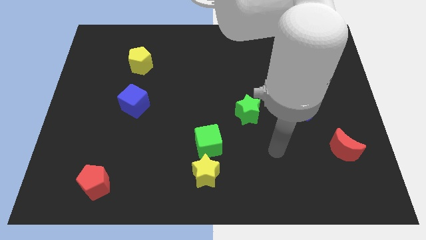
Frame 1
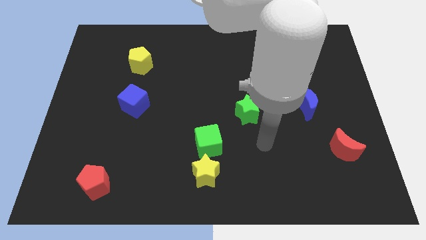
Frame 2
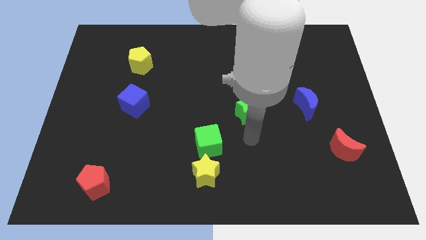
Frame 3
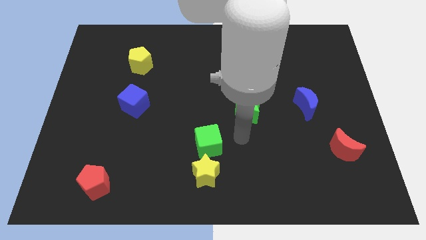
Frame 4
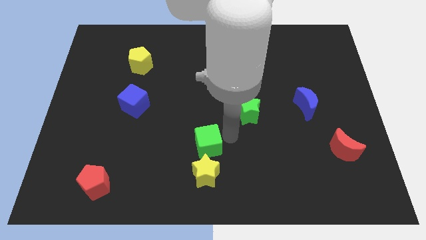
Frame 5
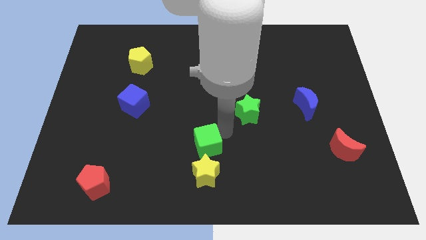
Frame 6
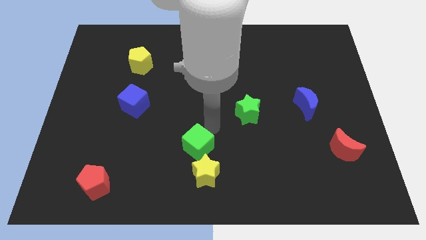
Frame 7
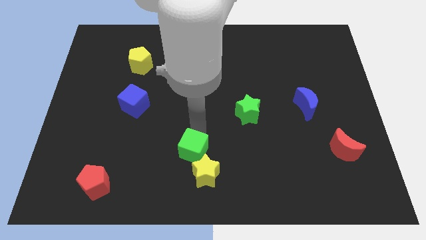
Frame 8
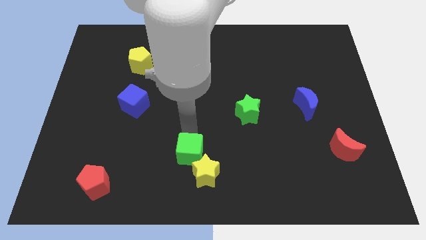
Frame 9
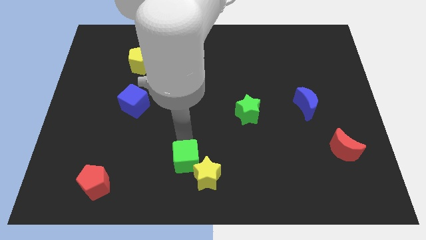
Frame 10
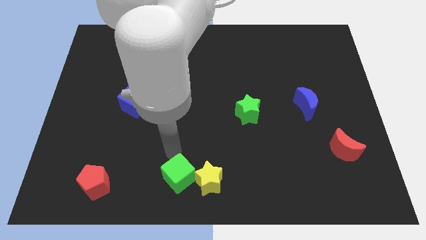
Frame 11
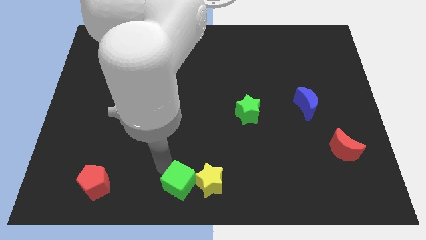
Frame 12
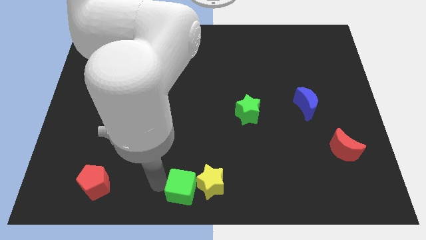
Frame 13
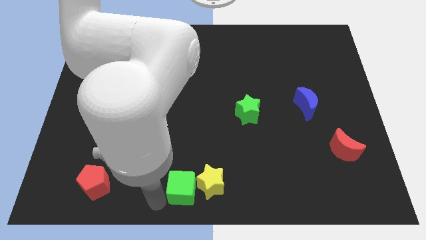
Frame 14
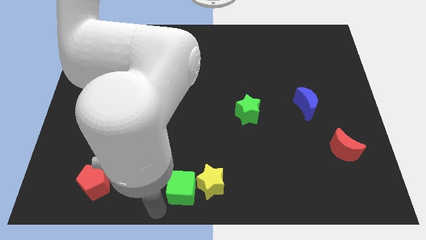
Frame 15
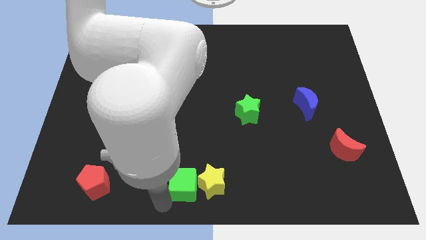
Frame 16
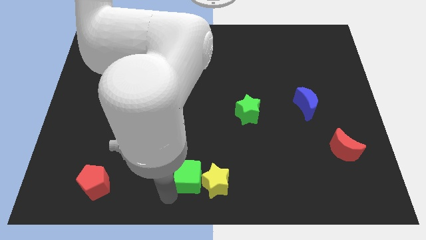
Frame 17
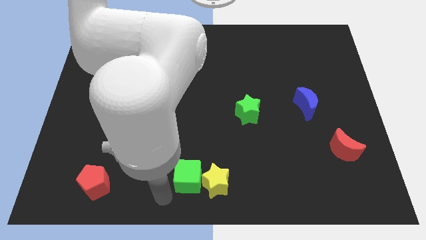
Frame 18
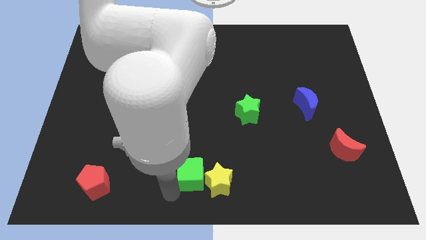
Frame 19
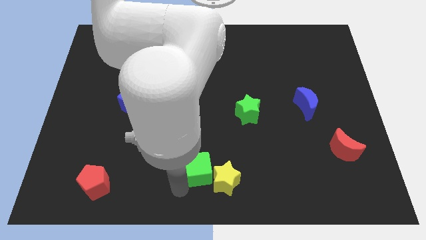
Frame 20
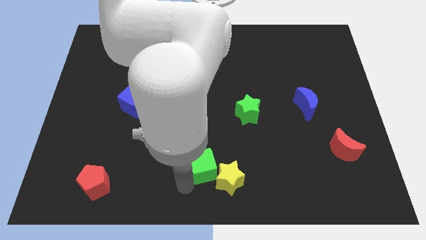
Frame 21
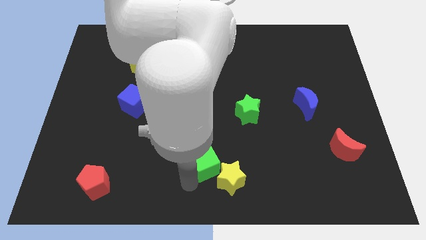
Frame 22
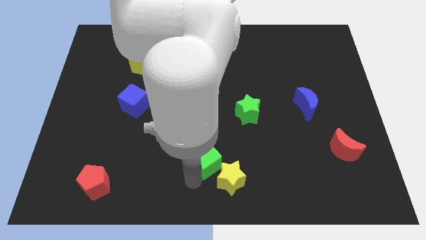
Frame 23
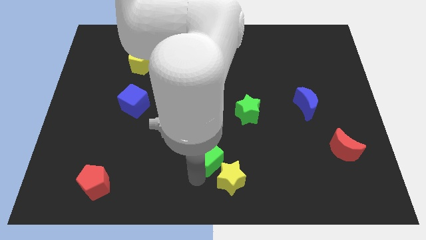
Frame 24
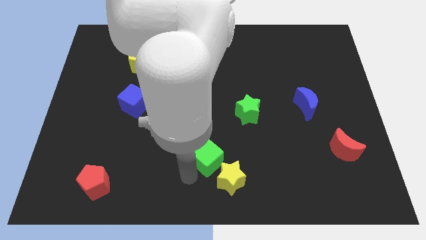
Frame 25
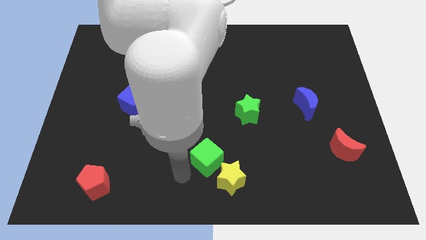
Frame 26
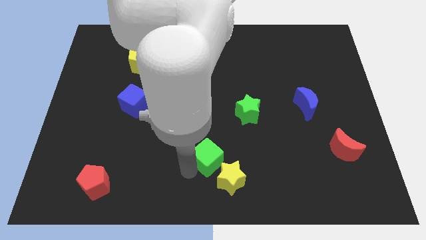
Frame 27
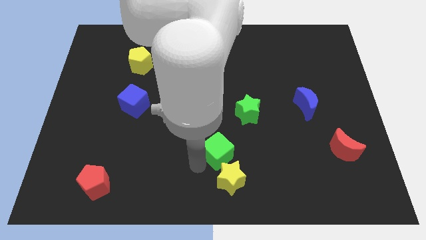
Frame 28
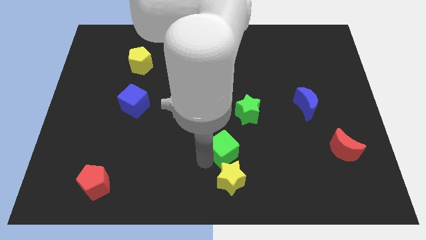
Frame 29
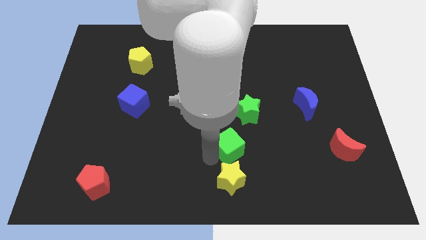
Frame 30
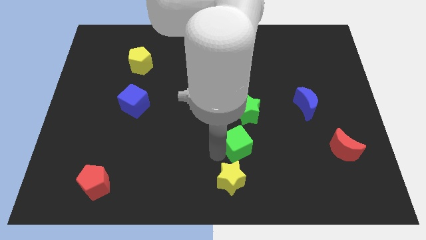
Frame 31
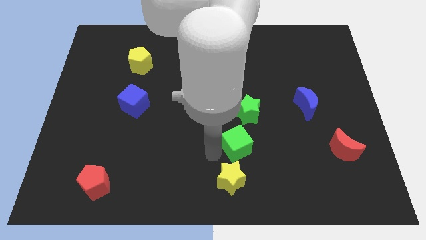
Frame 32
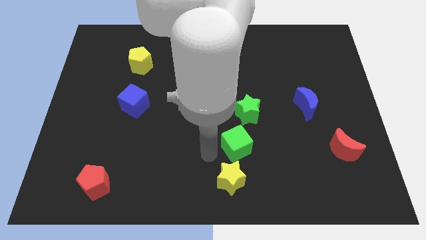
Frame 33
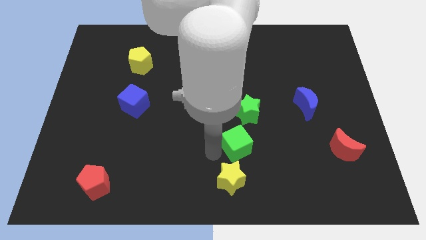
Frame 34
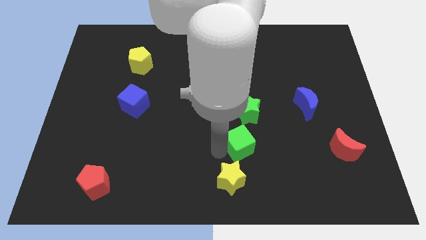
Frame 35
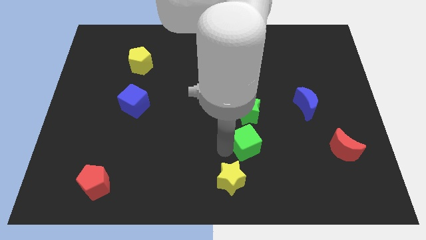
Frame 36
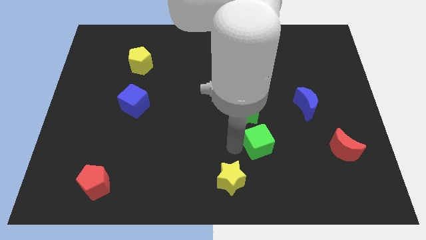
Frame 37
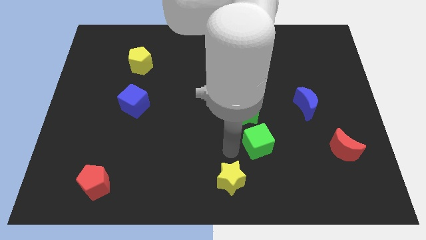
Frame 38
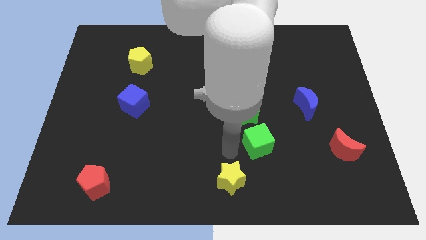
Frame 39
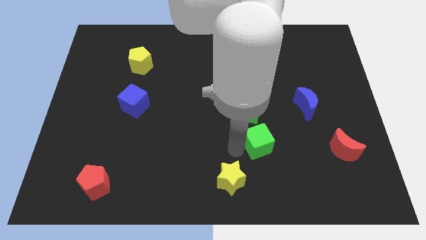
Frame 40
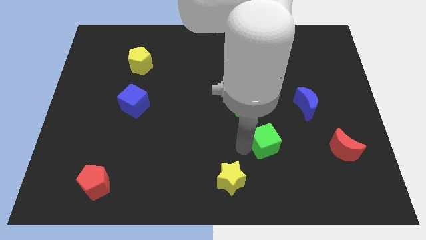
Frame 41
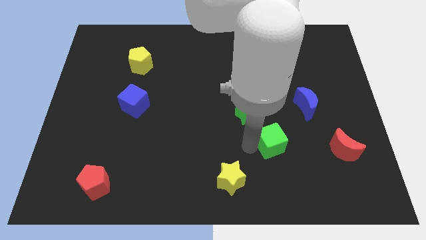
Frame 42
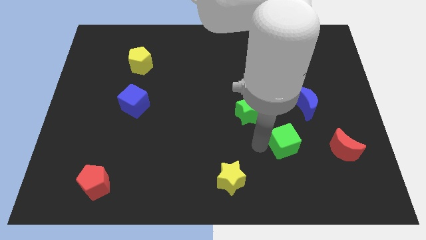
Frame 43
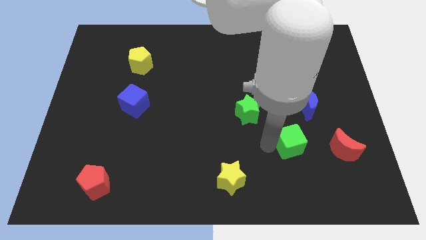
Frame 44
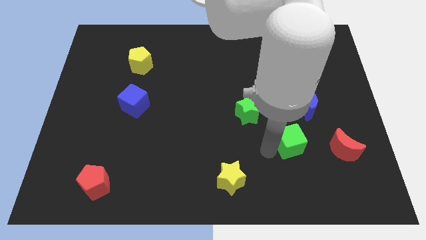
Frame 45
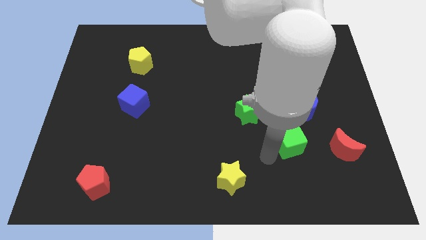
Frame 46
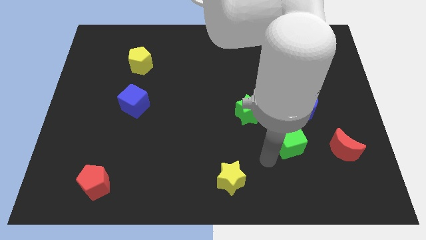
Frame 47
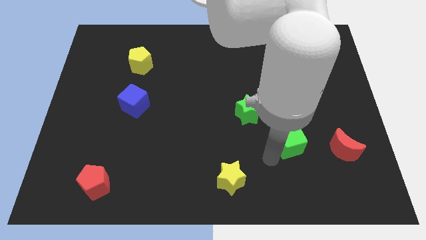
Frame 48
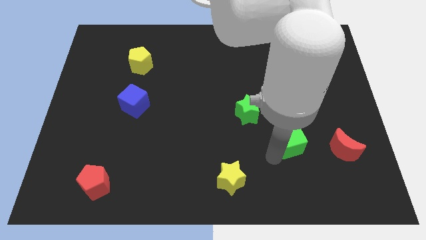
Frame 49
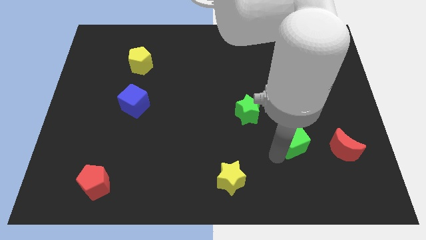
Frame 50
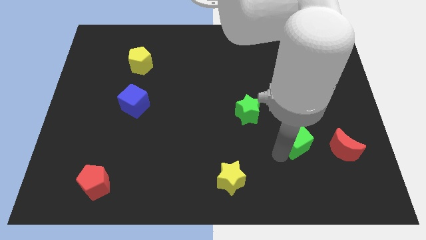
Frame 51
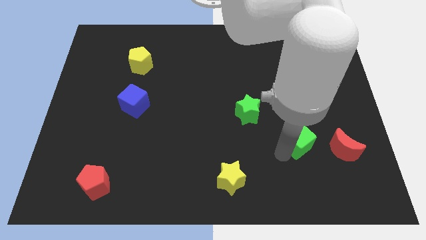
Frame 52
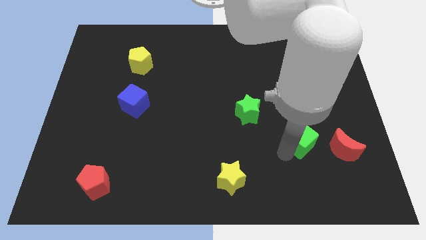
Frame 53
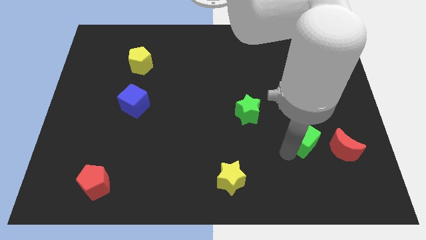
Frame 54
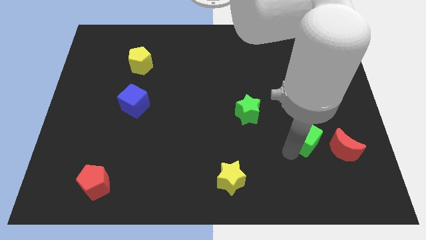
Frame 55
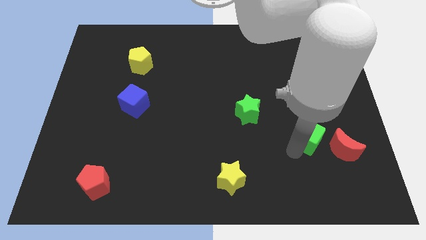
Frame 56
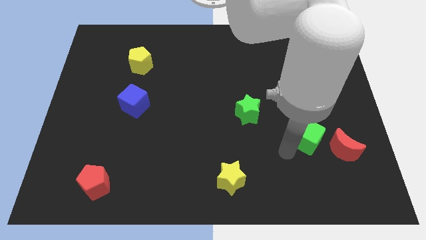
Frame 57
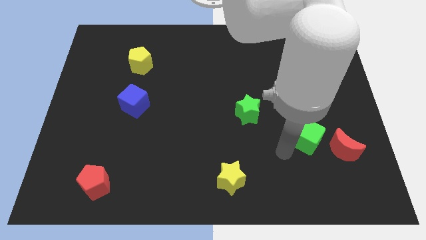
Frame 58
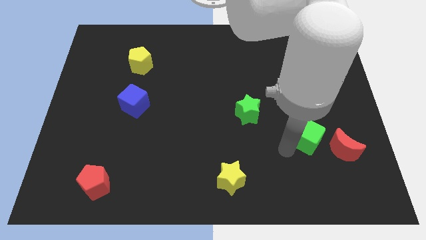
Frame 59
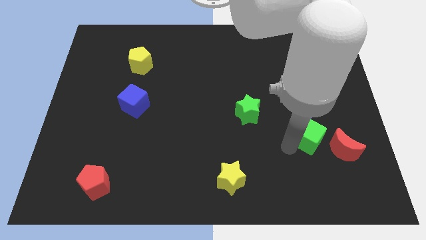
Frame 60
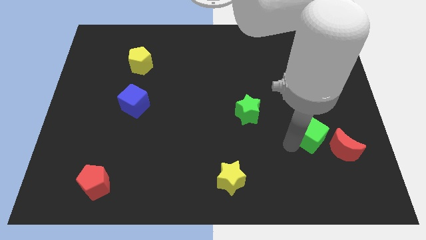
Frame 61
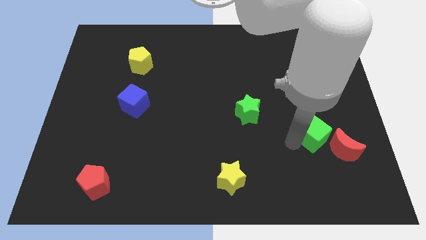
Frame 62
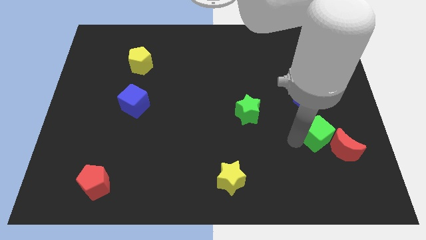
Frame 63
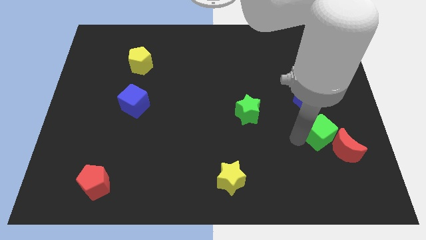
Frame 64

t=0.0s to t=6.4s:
slide the green cube to the bottom right side of the blue moon

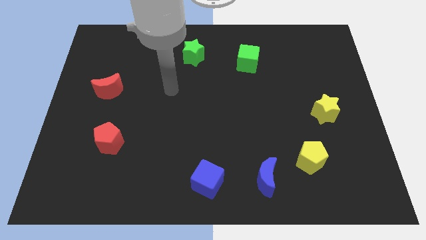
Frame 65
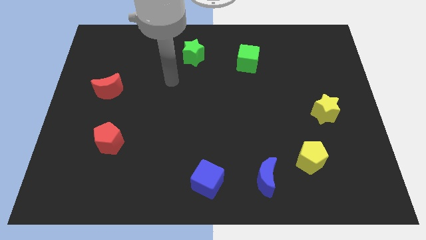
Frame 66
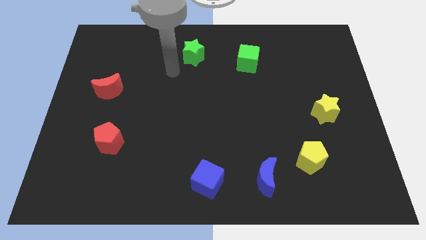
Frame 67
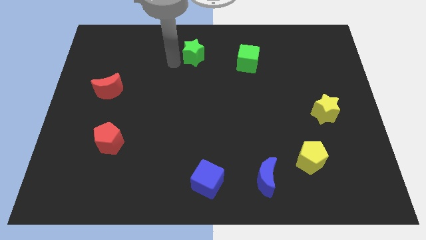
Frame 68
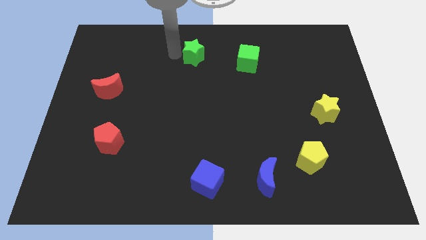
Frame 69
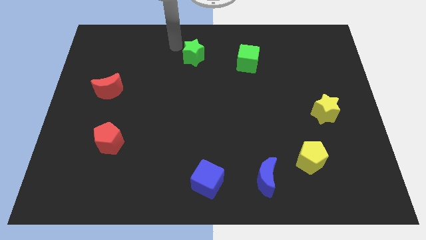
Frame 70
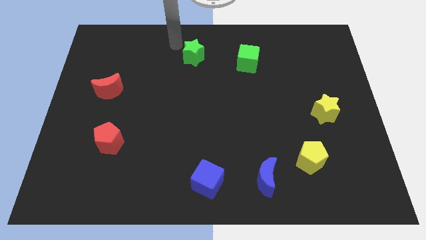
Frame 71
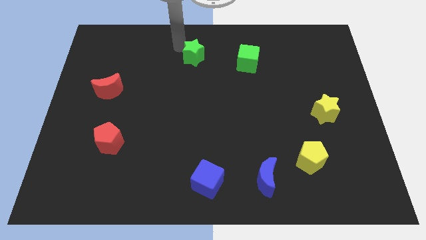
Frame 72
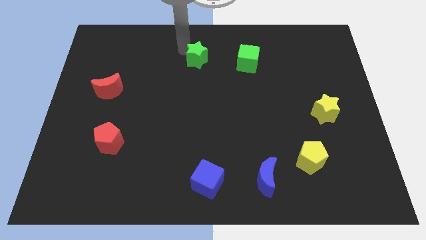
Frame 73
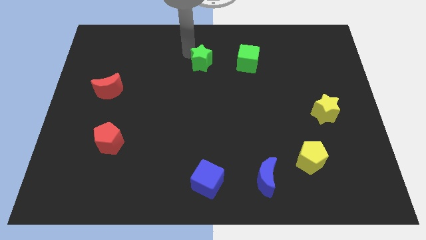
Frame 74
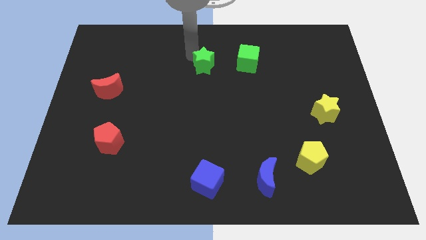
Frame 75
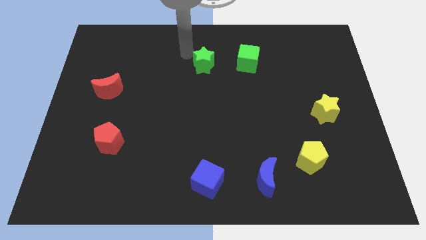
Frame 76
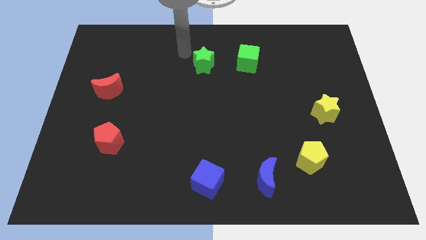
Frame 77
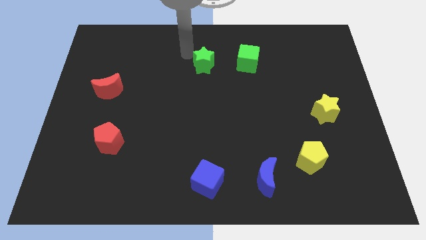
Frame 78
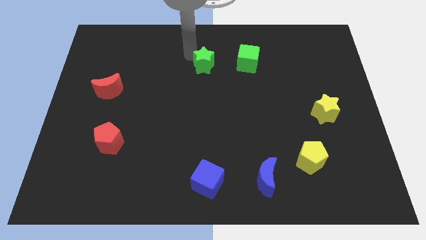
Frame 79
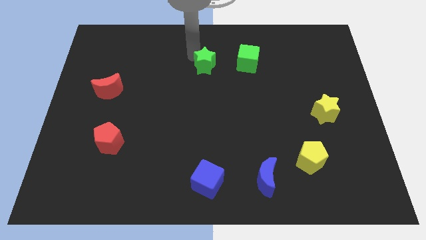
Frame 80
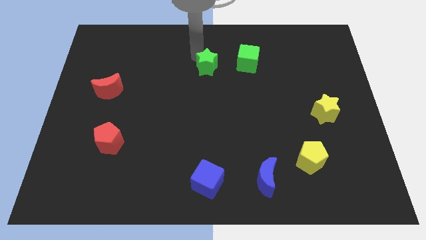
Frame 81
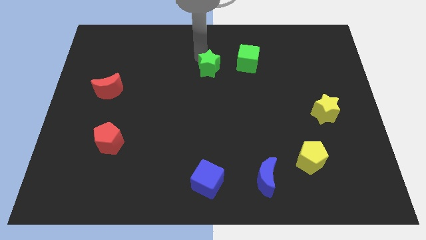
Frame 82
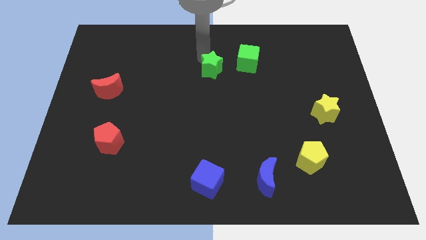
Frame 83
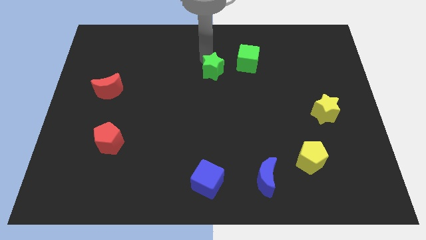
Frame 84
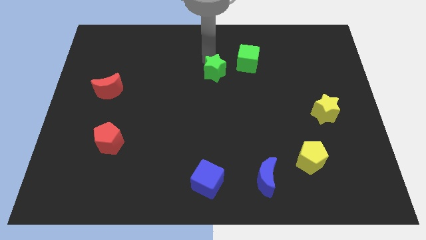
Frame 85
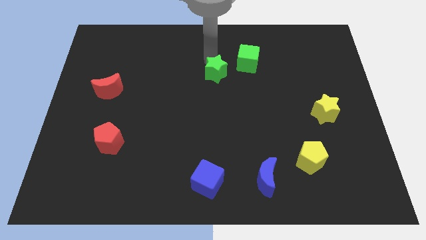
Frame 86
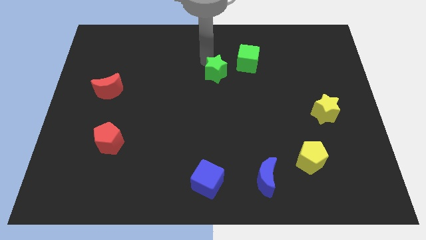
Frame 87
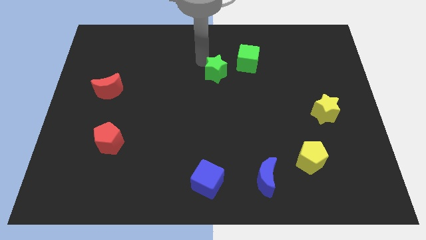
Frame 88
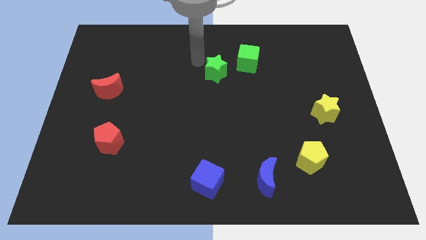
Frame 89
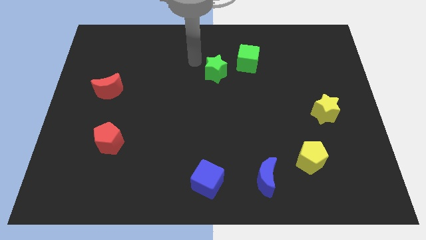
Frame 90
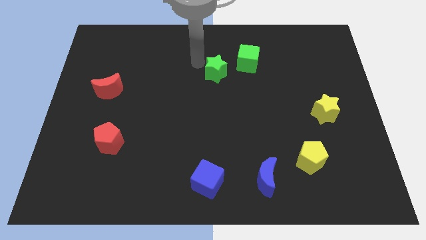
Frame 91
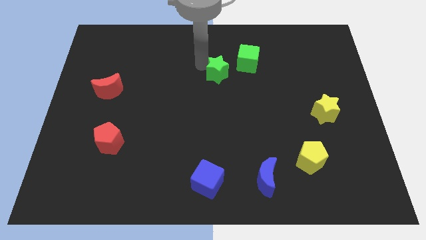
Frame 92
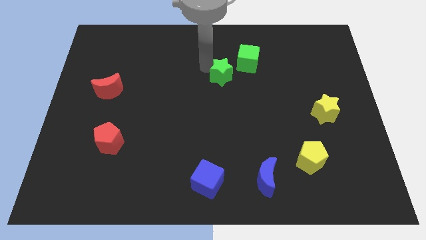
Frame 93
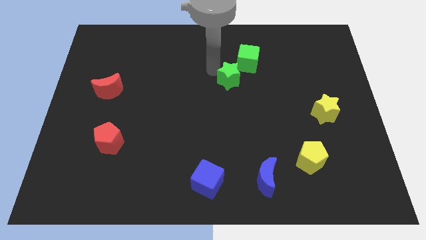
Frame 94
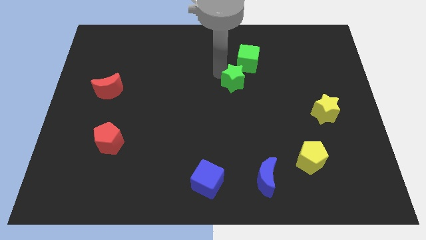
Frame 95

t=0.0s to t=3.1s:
move the green star below the green cube
